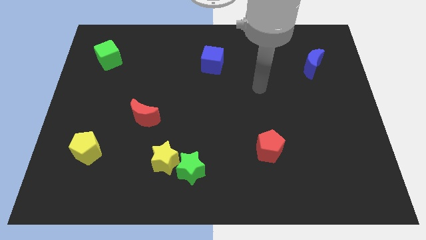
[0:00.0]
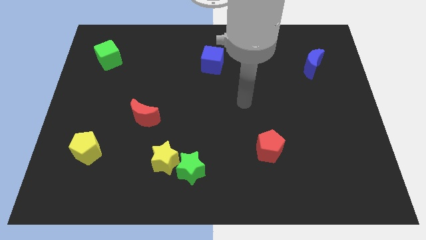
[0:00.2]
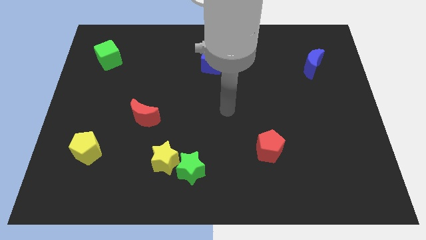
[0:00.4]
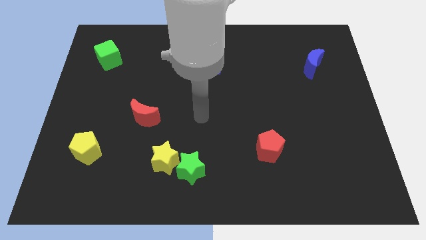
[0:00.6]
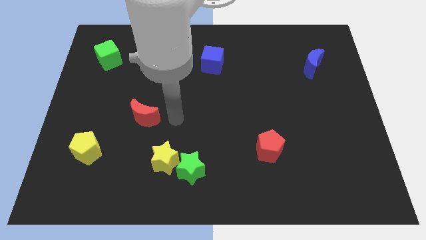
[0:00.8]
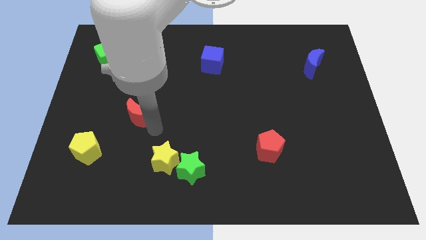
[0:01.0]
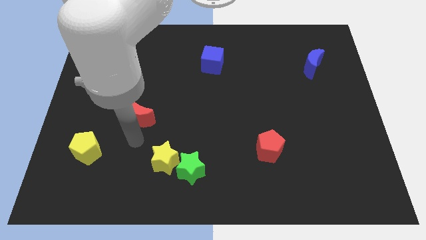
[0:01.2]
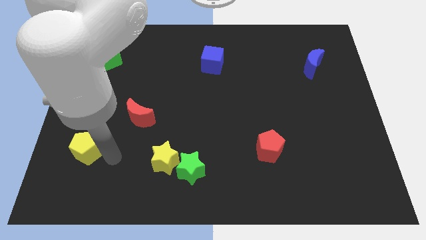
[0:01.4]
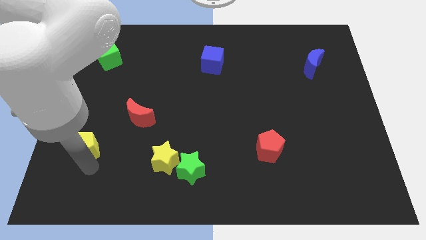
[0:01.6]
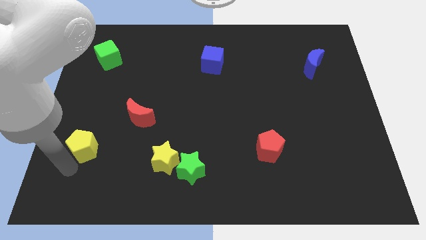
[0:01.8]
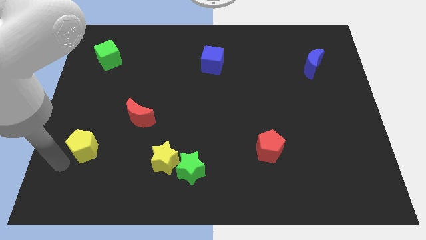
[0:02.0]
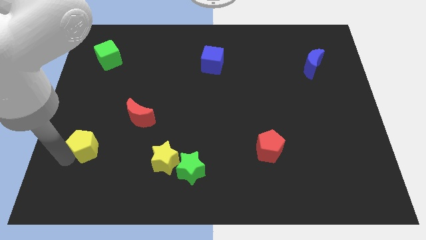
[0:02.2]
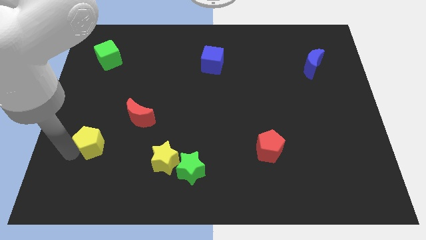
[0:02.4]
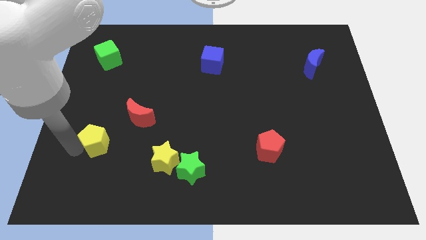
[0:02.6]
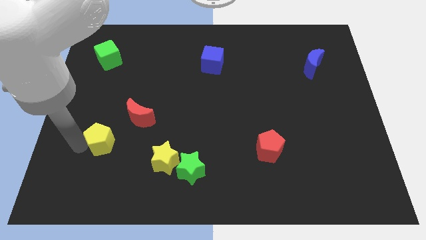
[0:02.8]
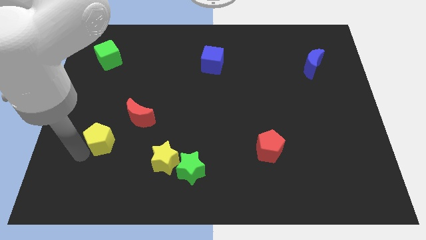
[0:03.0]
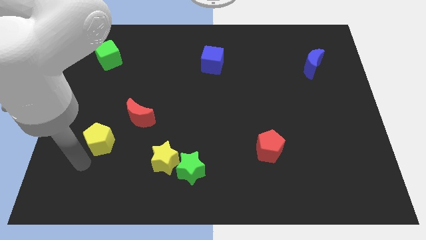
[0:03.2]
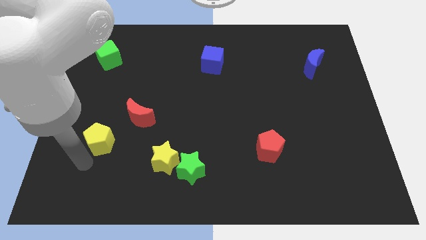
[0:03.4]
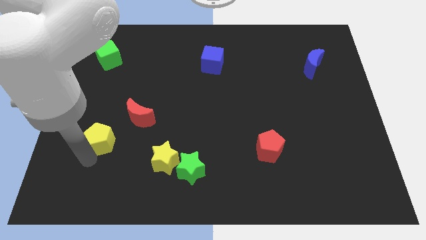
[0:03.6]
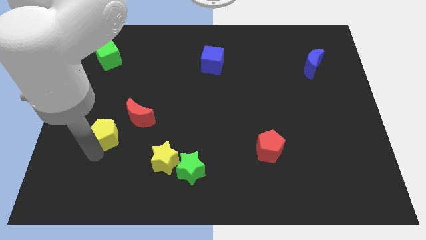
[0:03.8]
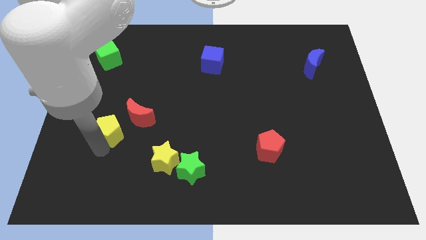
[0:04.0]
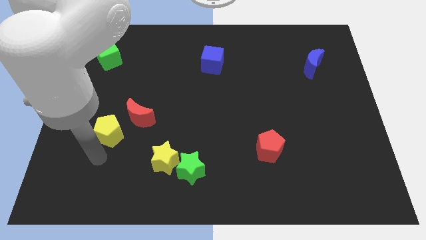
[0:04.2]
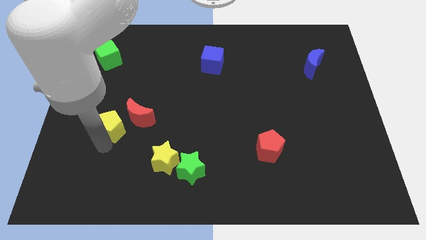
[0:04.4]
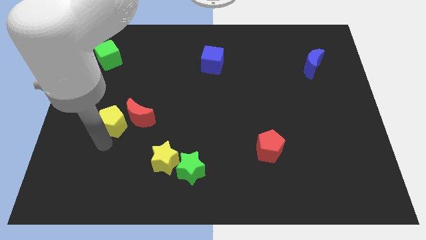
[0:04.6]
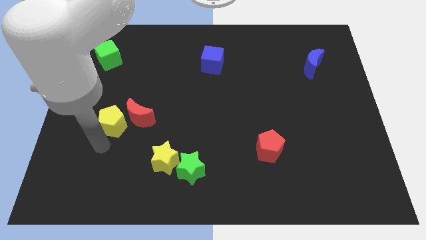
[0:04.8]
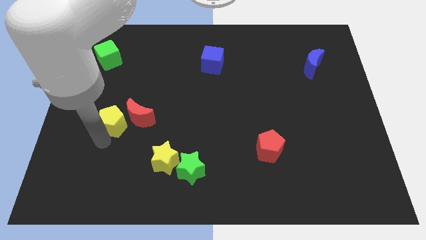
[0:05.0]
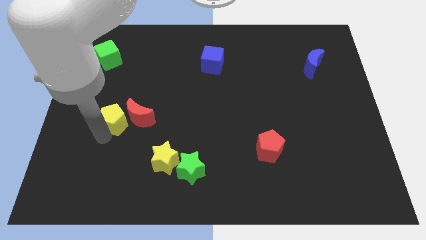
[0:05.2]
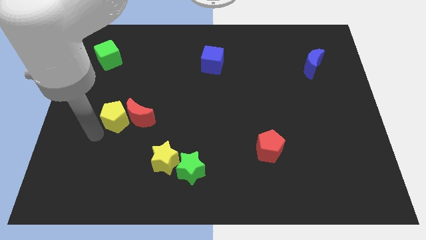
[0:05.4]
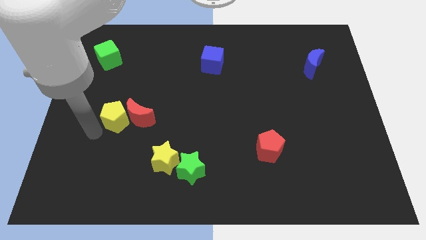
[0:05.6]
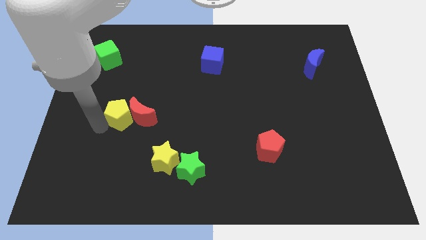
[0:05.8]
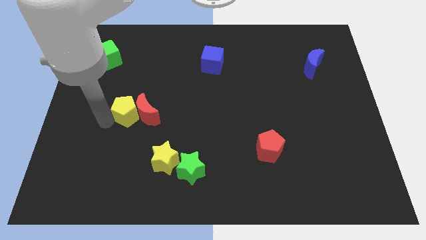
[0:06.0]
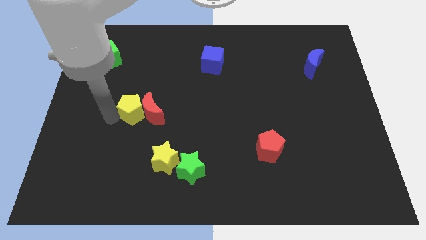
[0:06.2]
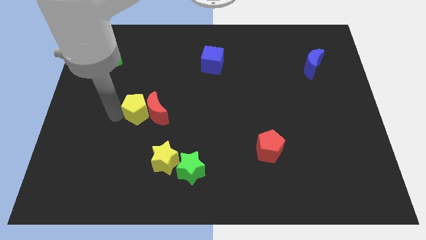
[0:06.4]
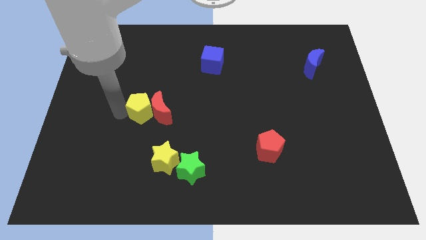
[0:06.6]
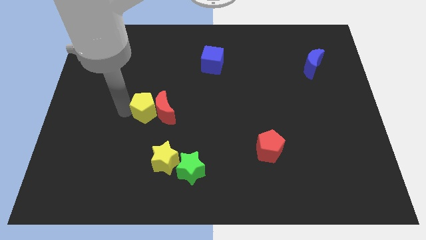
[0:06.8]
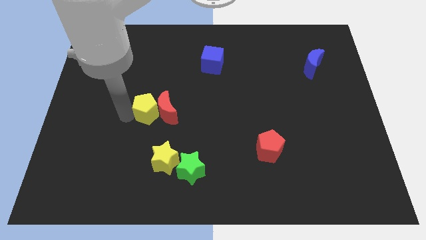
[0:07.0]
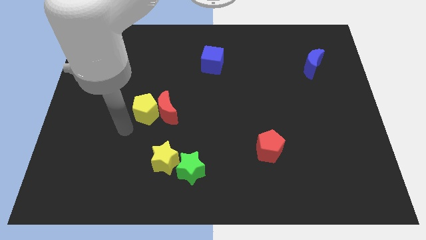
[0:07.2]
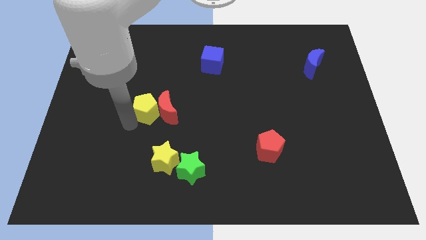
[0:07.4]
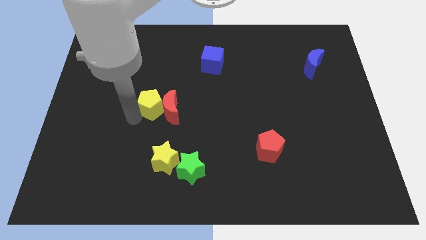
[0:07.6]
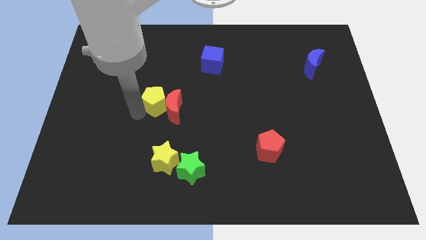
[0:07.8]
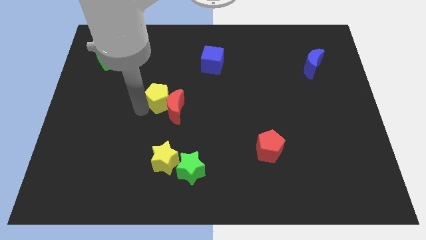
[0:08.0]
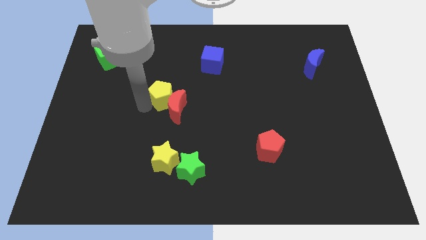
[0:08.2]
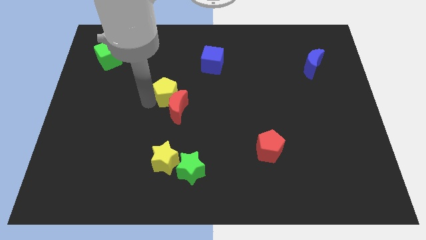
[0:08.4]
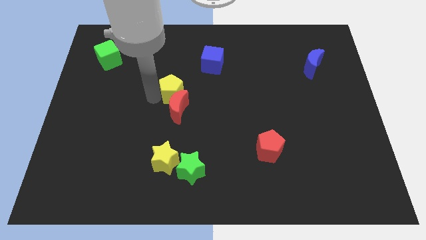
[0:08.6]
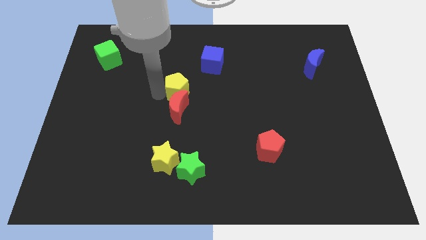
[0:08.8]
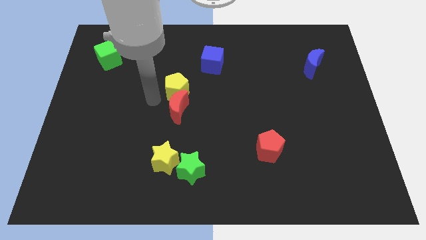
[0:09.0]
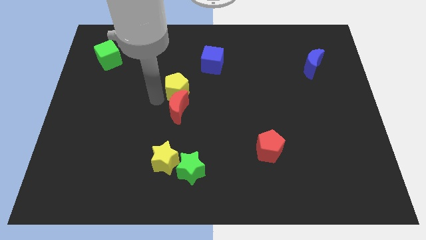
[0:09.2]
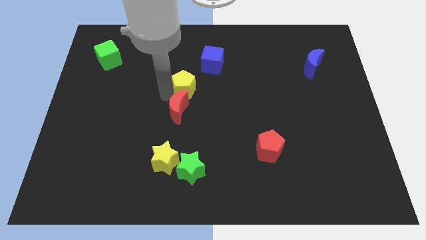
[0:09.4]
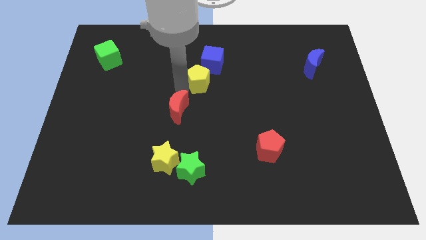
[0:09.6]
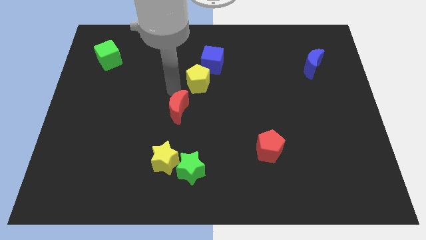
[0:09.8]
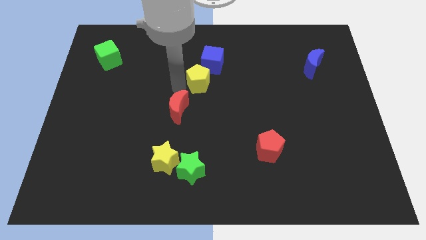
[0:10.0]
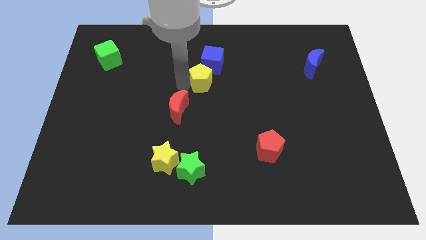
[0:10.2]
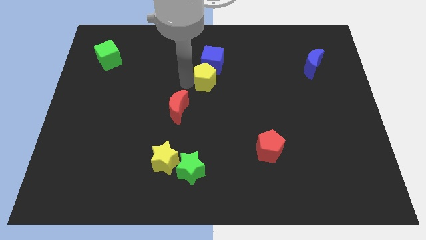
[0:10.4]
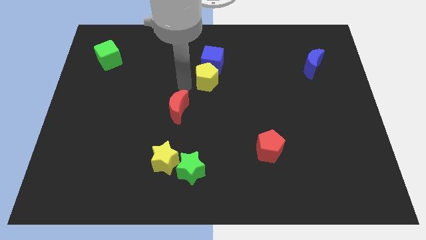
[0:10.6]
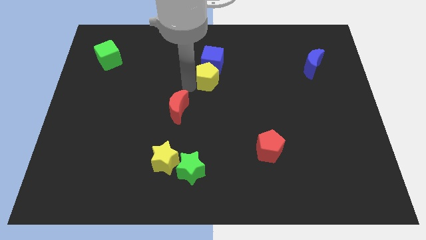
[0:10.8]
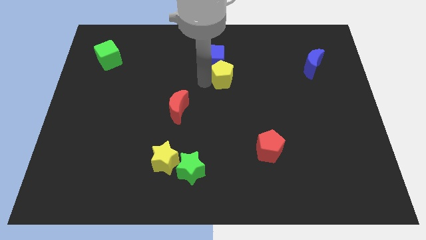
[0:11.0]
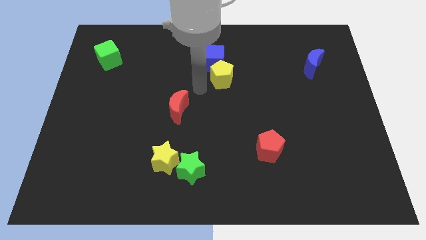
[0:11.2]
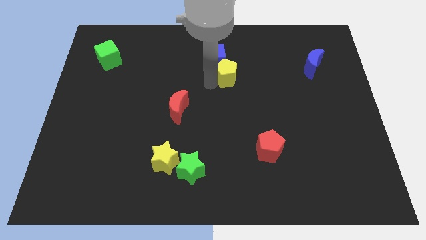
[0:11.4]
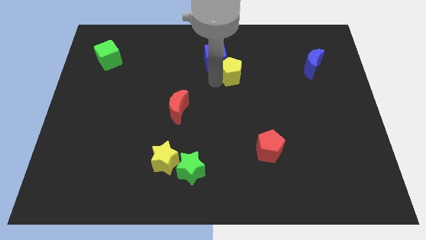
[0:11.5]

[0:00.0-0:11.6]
push the yellow pentagon to the right of the blue cube

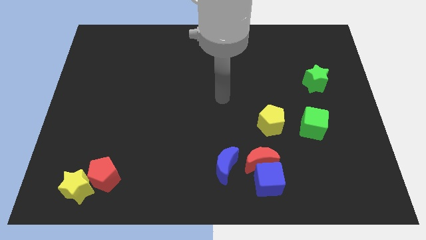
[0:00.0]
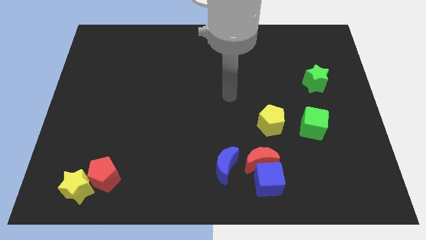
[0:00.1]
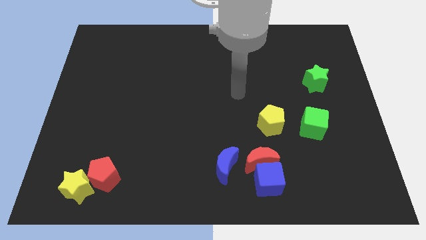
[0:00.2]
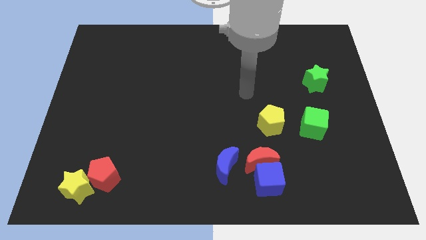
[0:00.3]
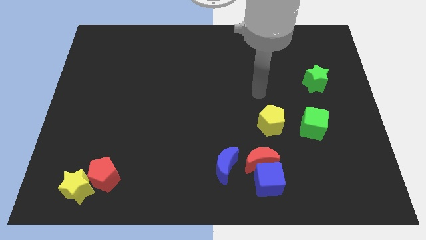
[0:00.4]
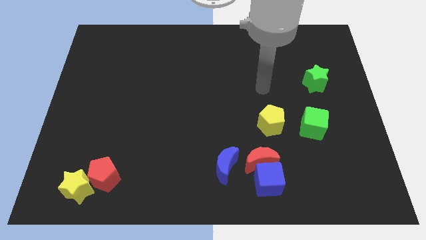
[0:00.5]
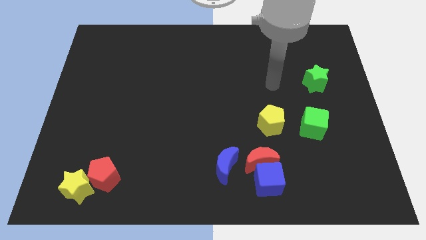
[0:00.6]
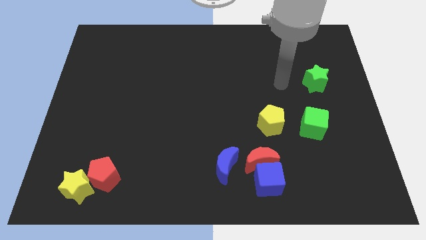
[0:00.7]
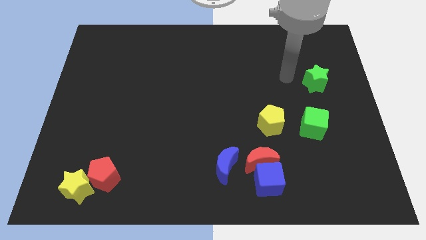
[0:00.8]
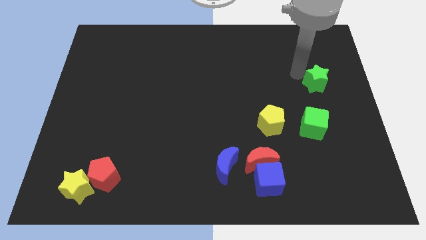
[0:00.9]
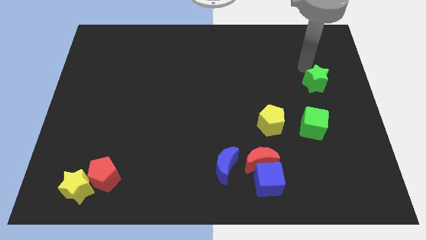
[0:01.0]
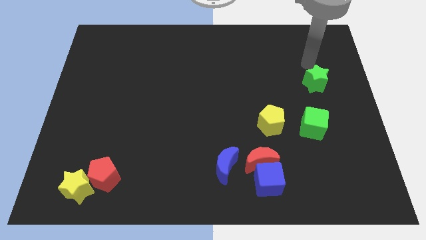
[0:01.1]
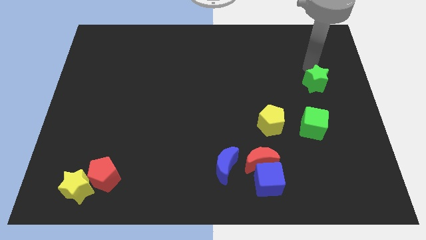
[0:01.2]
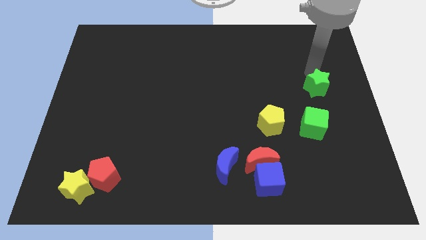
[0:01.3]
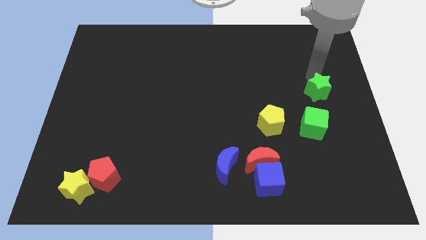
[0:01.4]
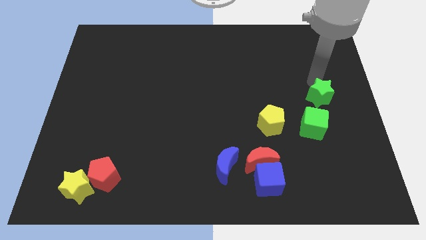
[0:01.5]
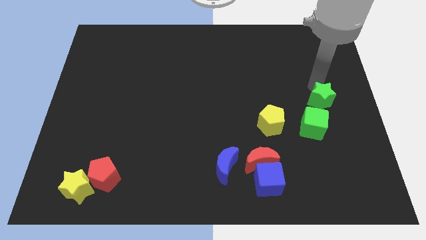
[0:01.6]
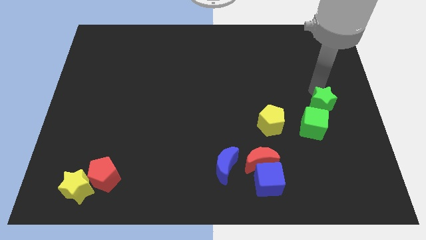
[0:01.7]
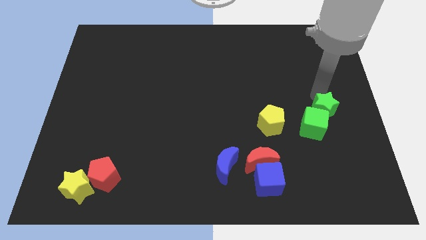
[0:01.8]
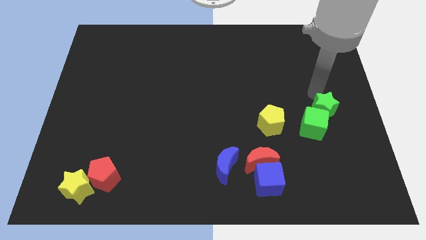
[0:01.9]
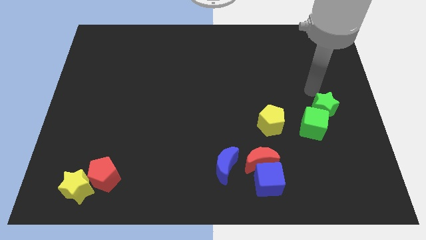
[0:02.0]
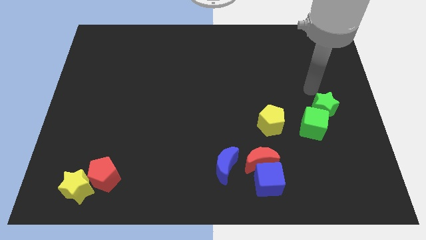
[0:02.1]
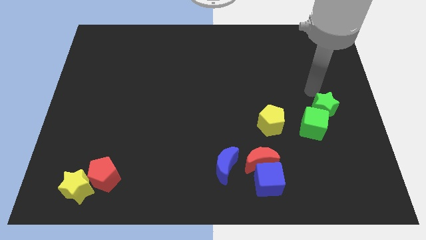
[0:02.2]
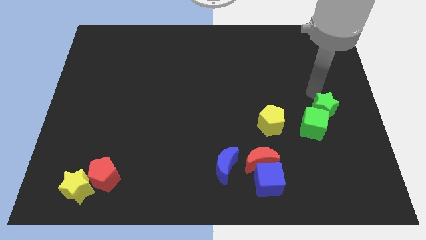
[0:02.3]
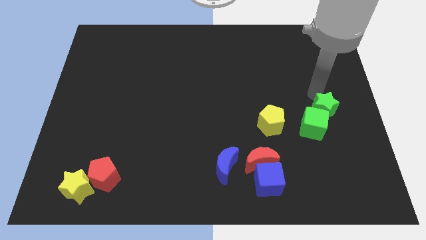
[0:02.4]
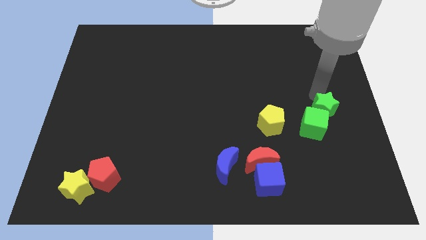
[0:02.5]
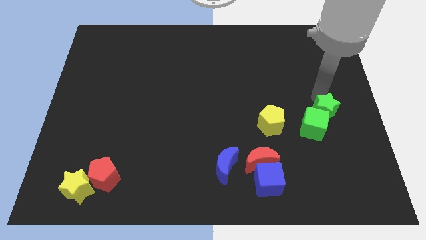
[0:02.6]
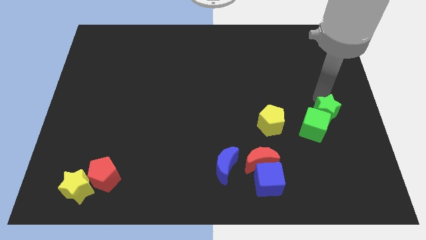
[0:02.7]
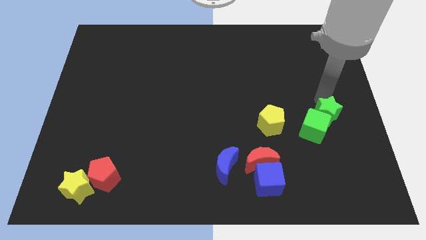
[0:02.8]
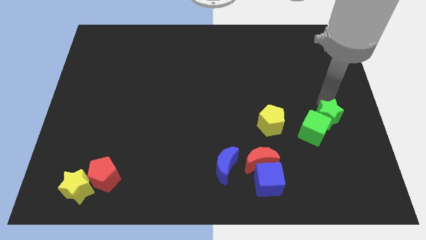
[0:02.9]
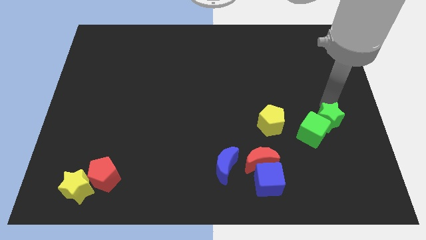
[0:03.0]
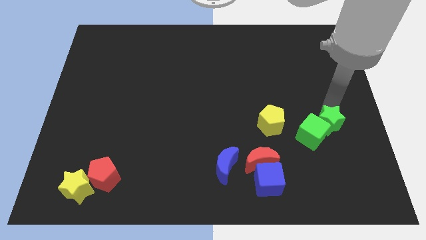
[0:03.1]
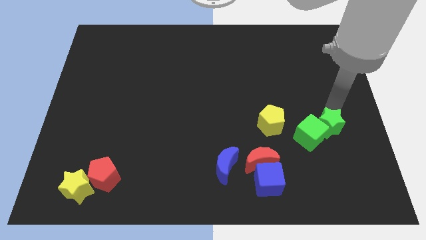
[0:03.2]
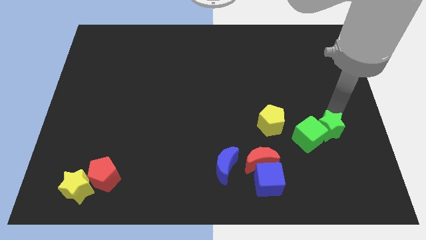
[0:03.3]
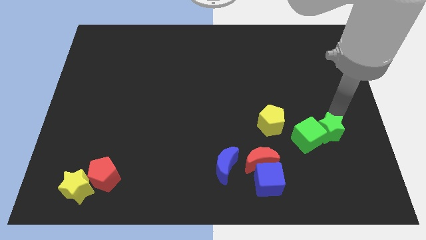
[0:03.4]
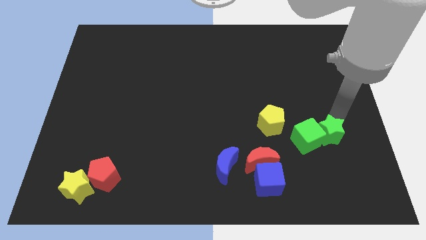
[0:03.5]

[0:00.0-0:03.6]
push the green star diagonally down and to the right of the green cube
